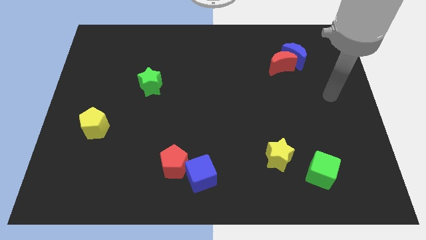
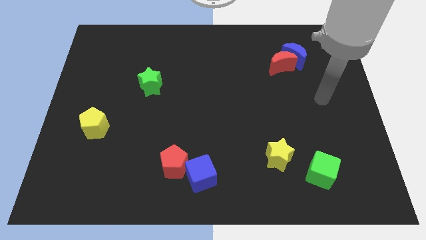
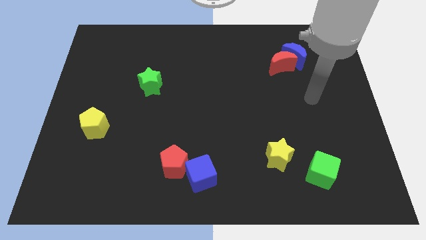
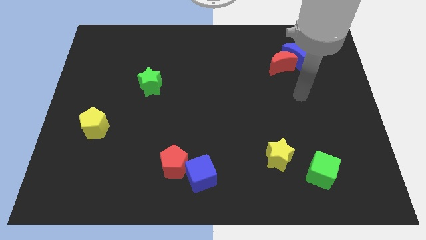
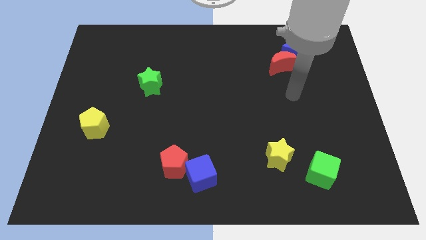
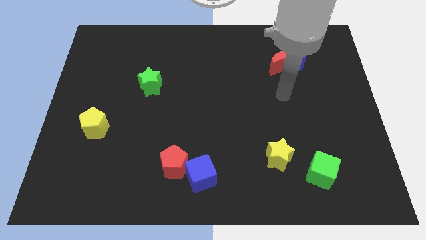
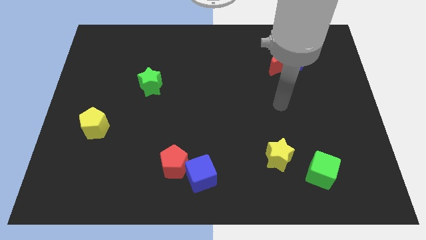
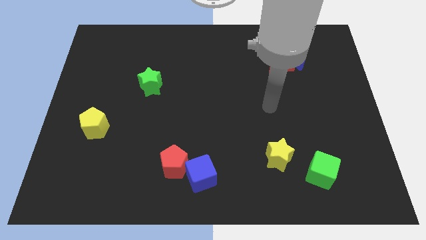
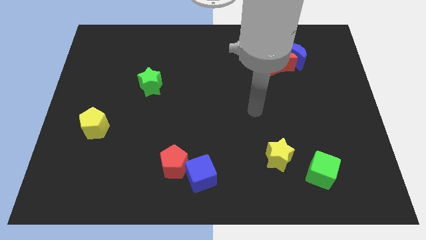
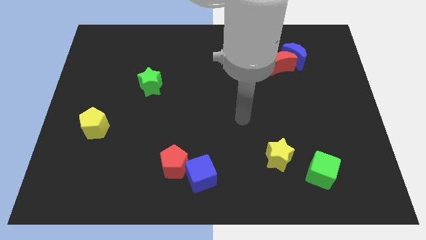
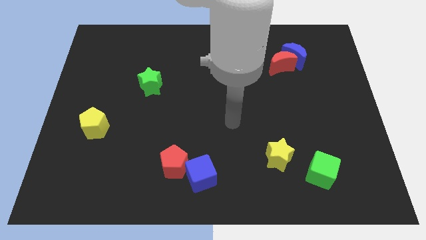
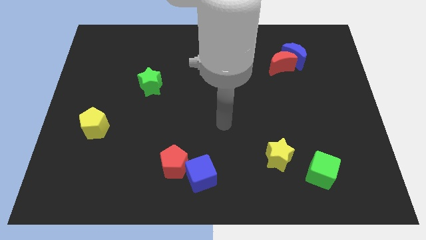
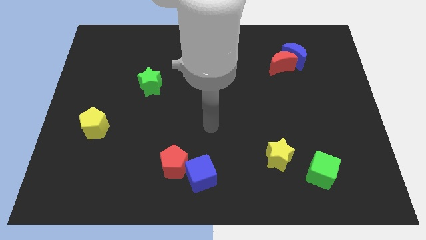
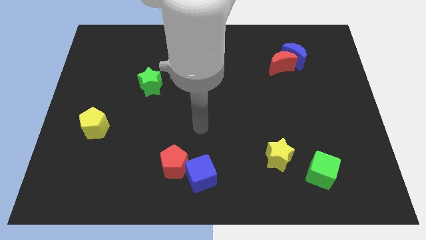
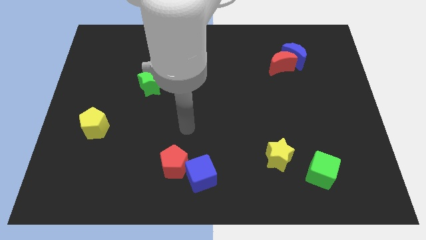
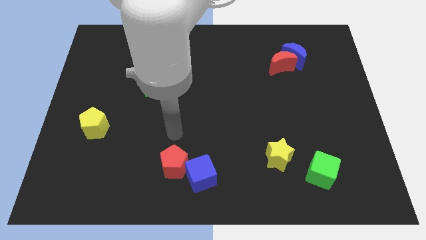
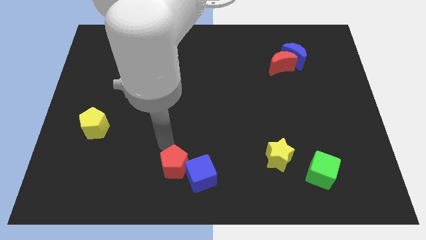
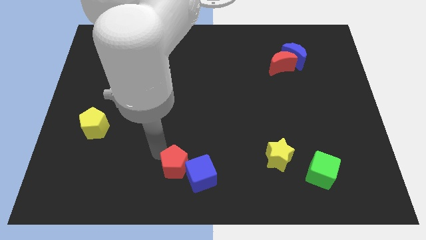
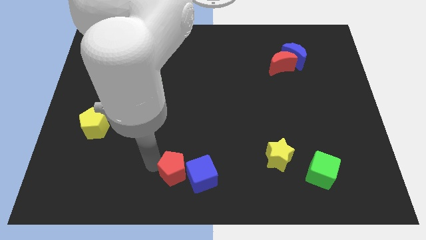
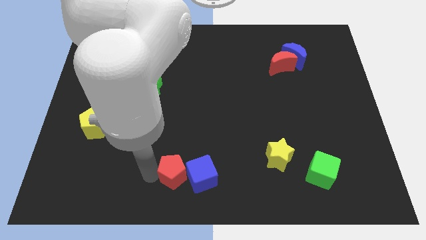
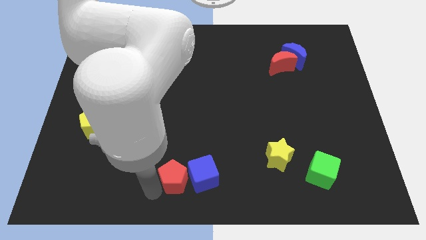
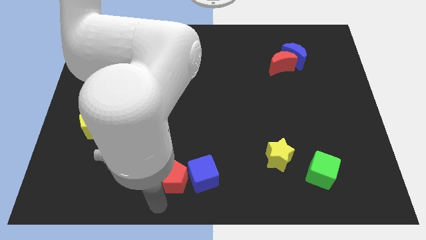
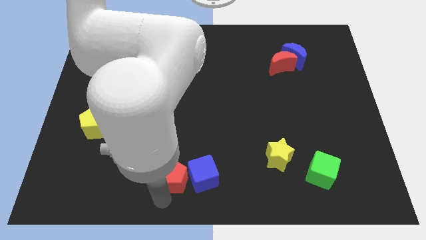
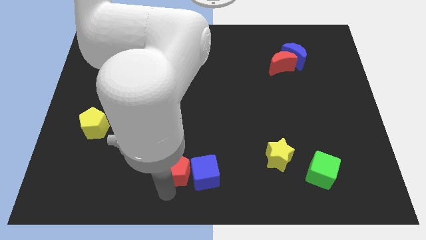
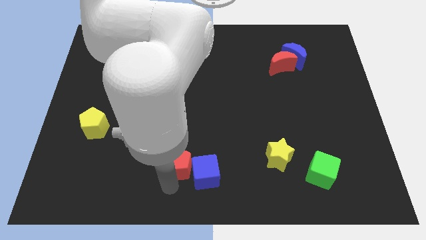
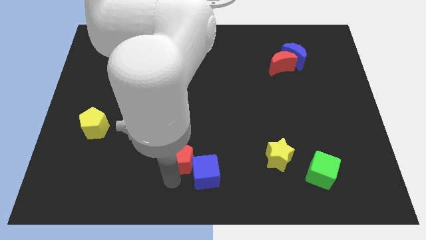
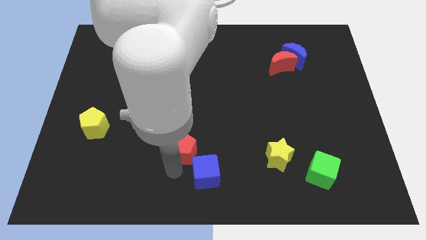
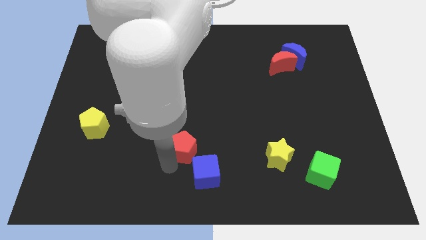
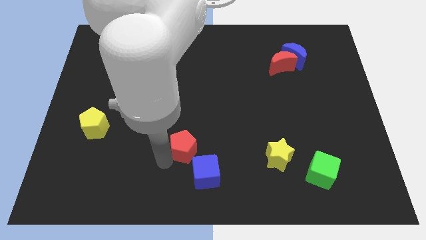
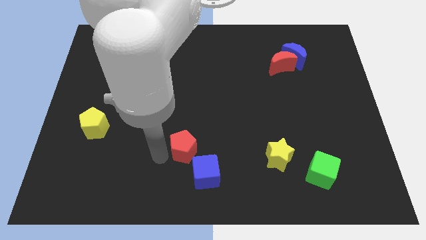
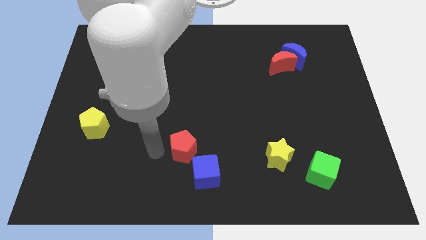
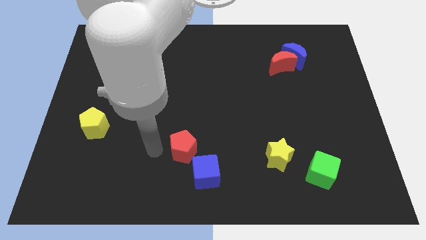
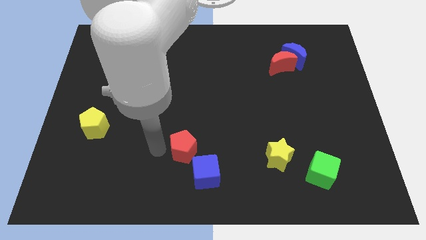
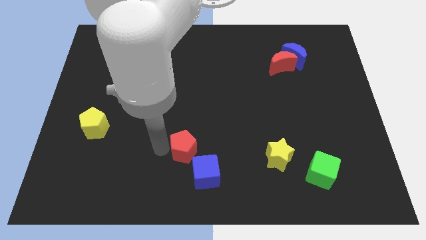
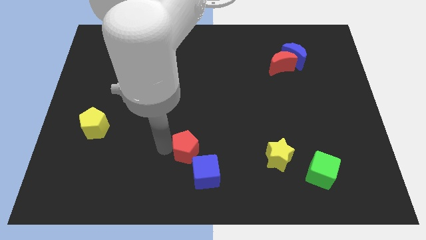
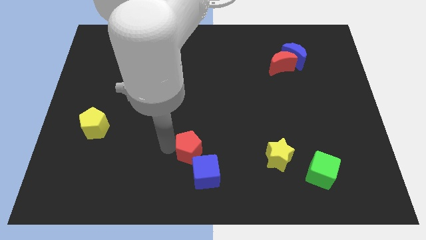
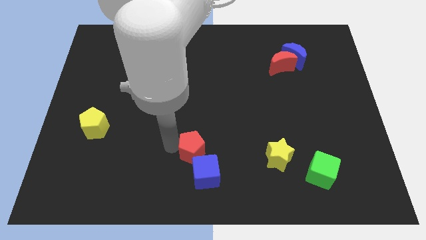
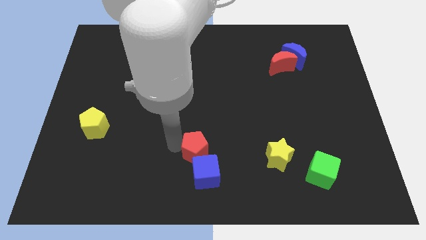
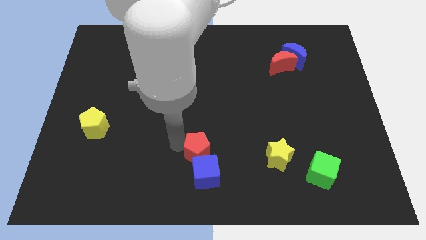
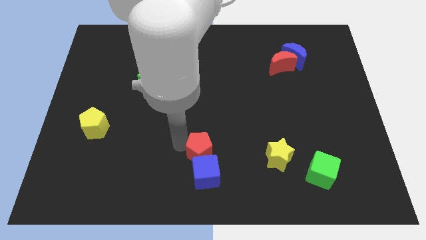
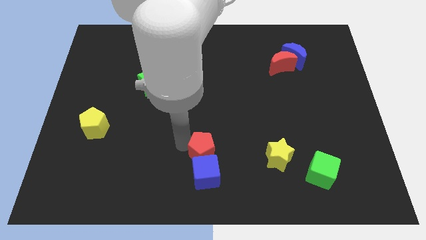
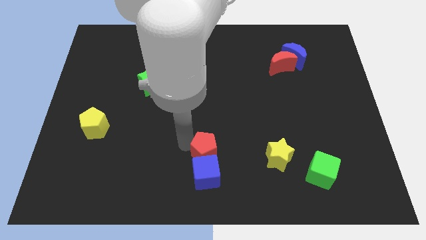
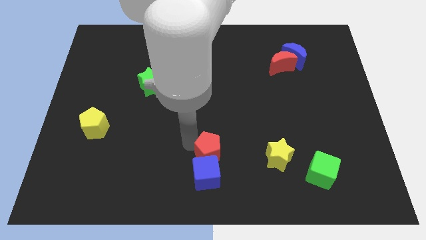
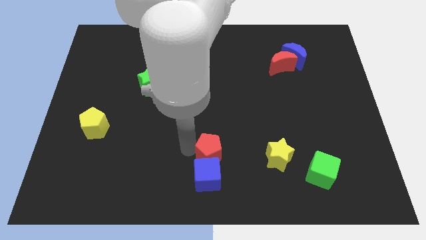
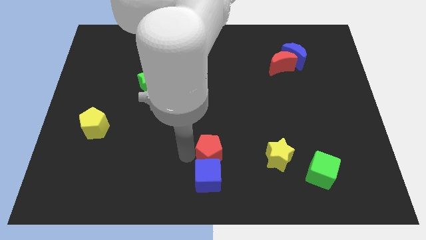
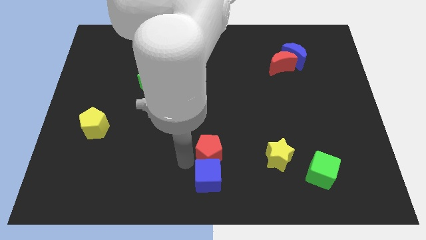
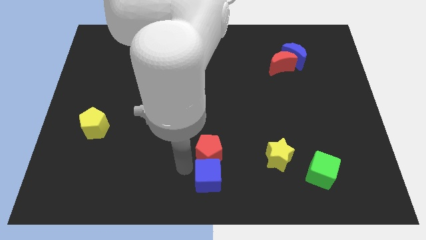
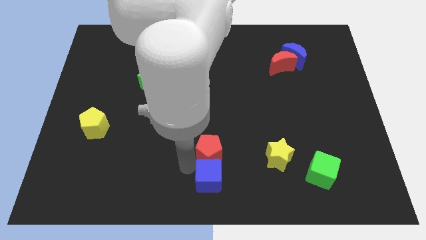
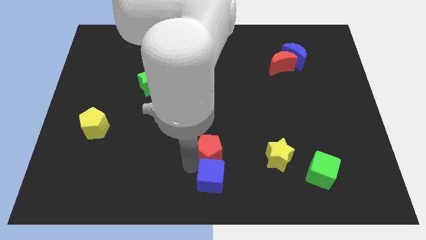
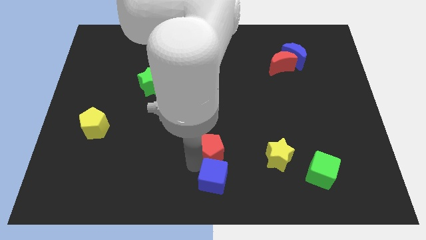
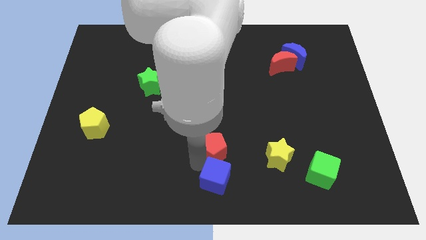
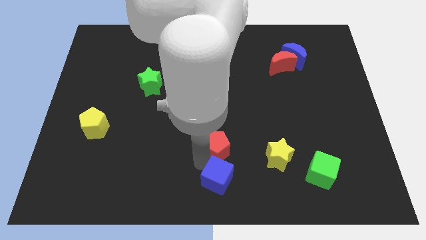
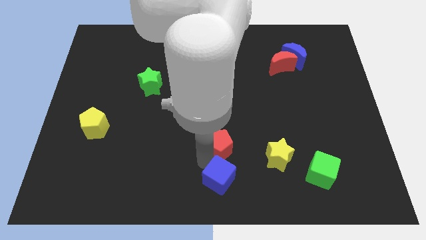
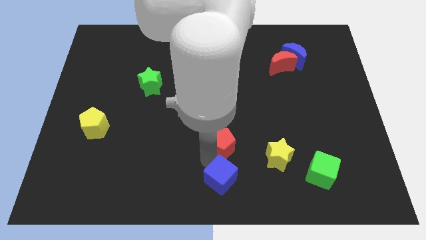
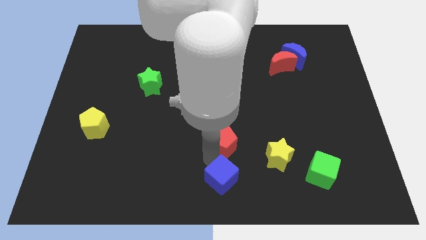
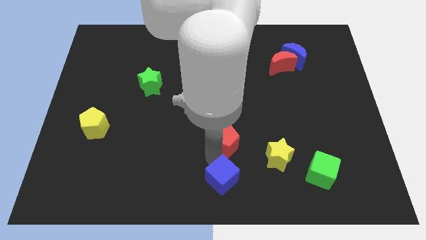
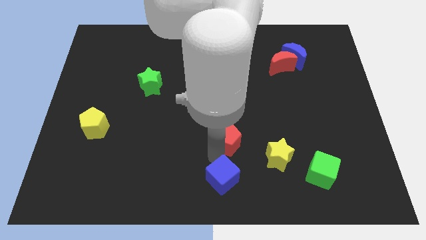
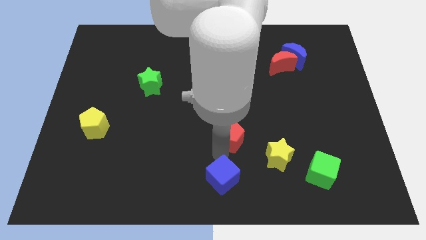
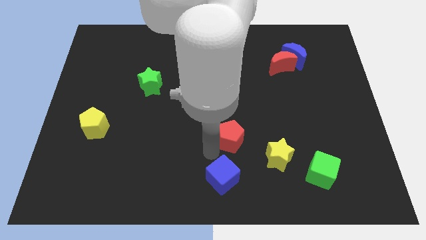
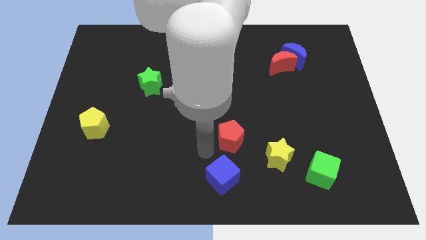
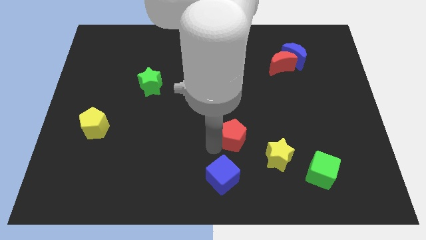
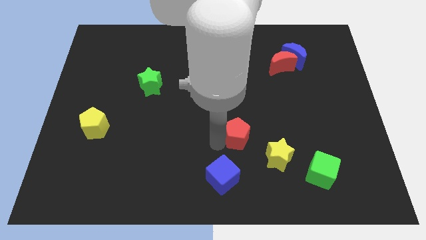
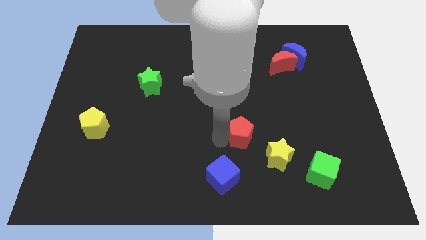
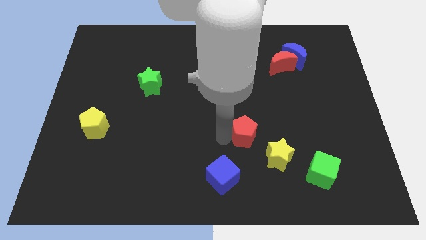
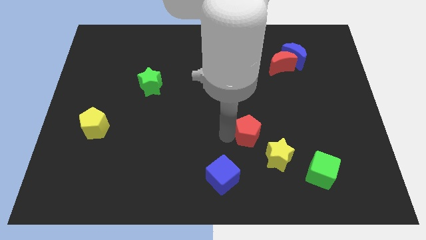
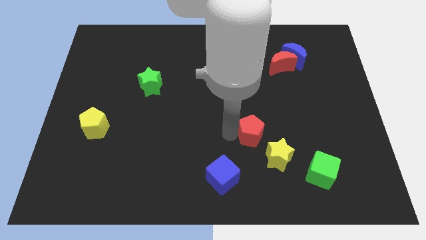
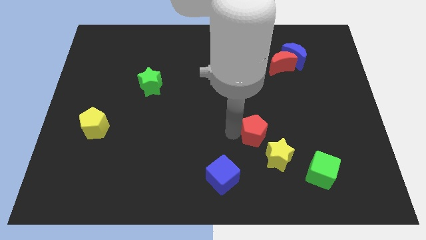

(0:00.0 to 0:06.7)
push the red pentagon to the top side of the yellow star
